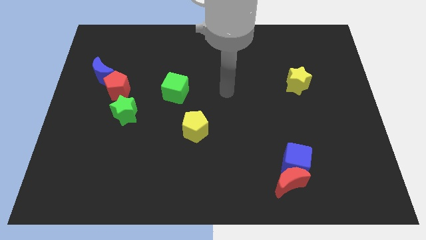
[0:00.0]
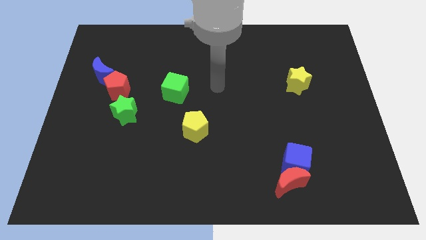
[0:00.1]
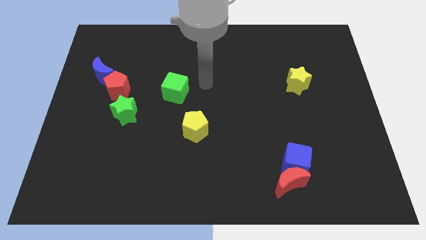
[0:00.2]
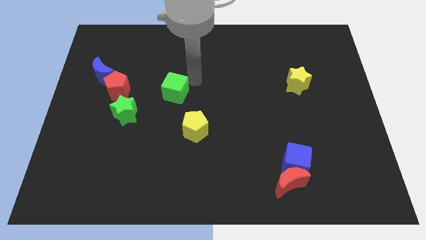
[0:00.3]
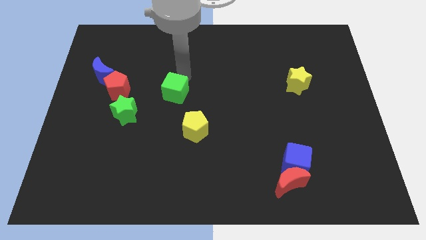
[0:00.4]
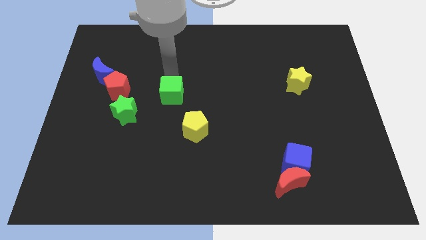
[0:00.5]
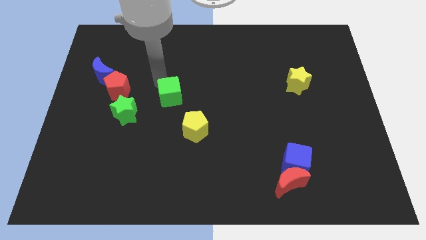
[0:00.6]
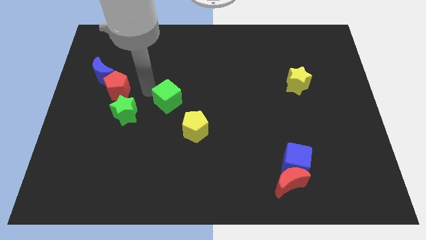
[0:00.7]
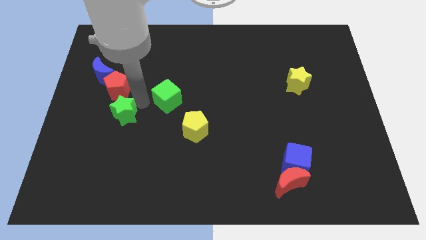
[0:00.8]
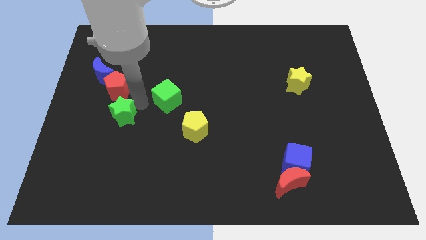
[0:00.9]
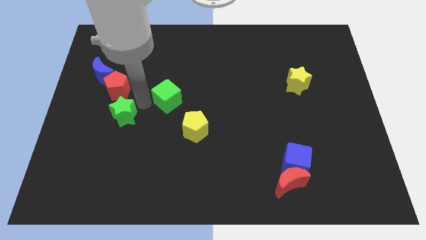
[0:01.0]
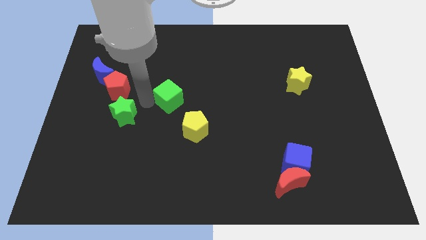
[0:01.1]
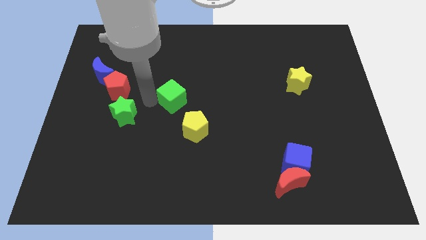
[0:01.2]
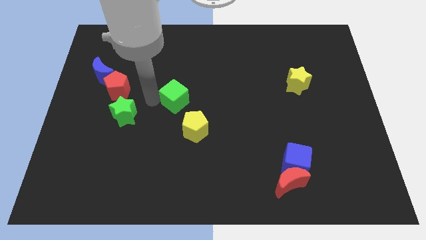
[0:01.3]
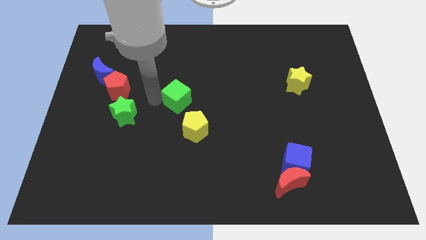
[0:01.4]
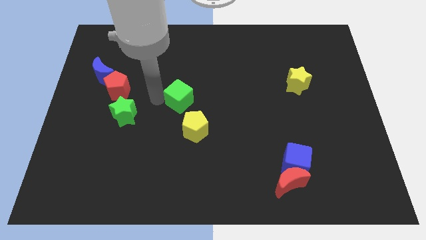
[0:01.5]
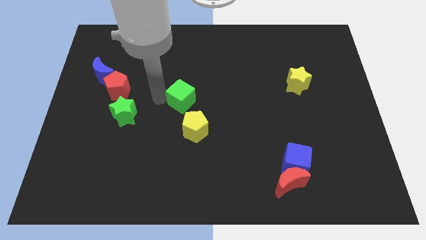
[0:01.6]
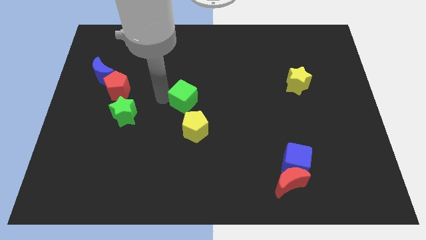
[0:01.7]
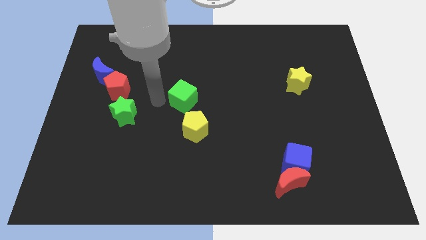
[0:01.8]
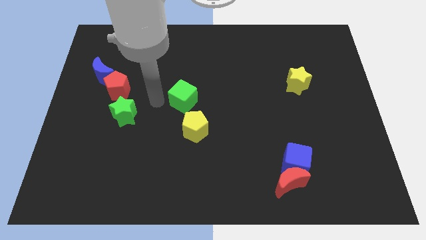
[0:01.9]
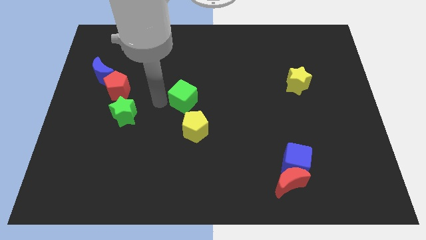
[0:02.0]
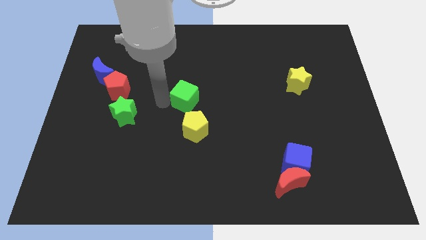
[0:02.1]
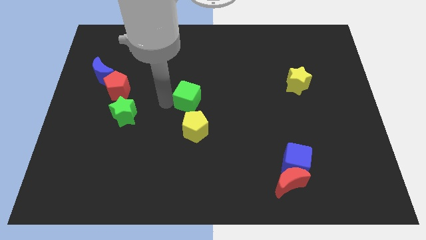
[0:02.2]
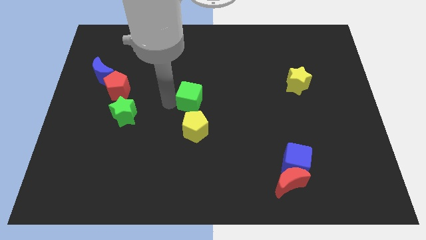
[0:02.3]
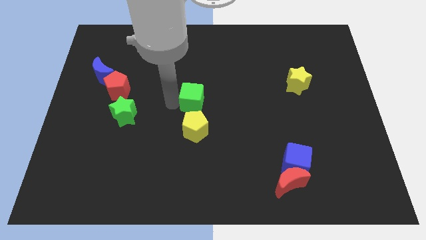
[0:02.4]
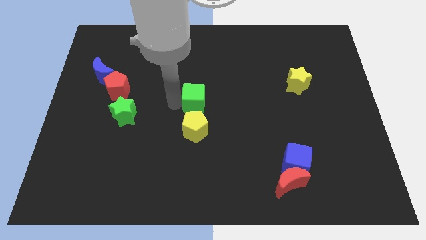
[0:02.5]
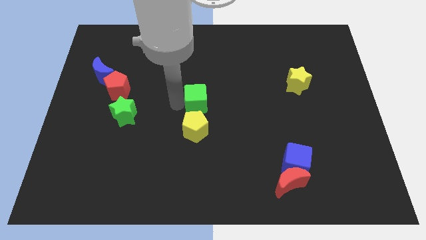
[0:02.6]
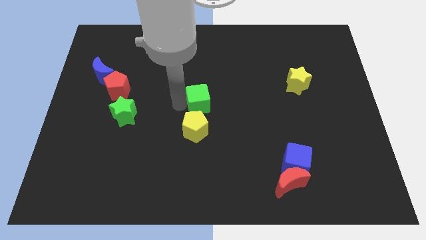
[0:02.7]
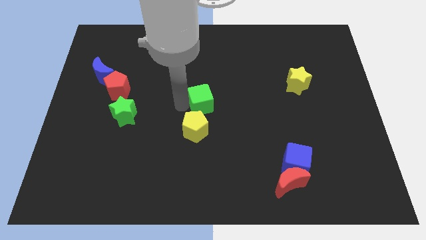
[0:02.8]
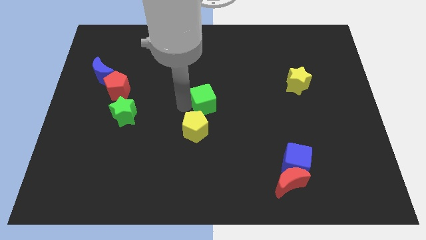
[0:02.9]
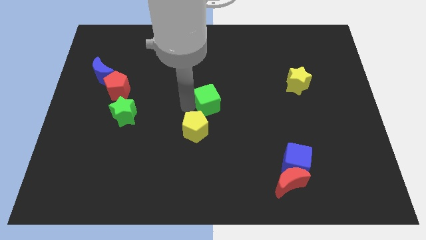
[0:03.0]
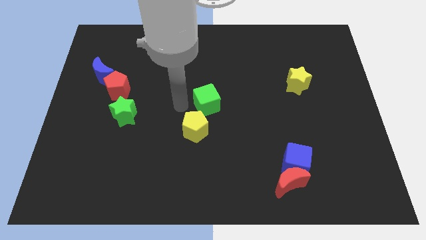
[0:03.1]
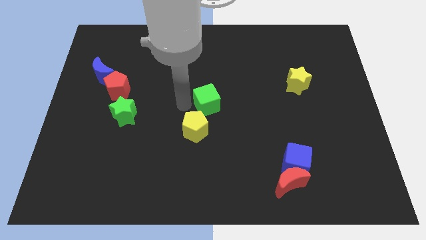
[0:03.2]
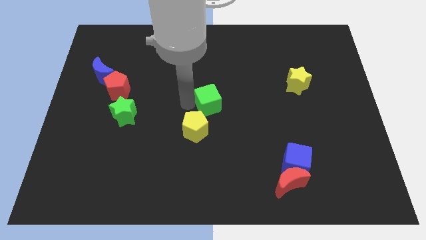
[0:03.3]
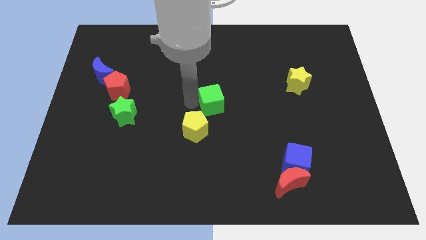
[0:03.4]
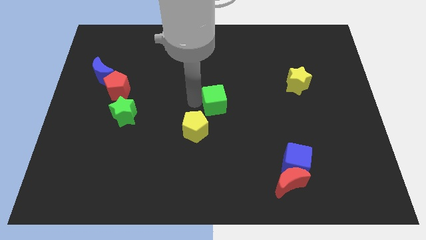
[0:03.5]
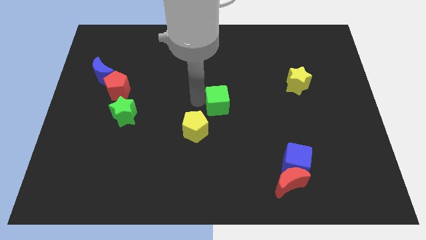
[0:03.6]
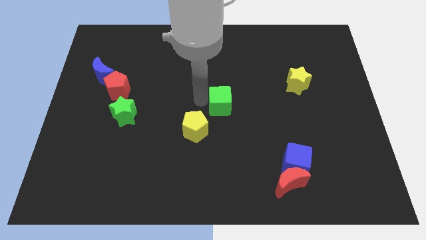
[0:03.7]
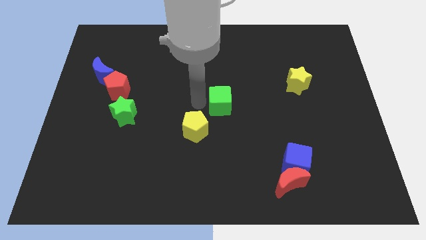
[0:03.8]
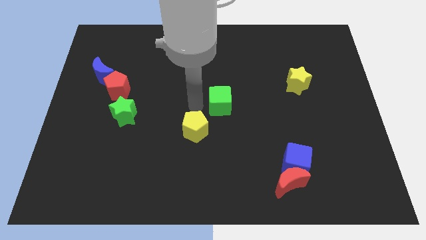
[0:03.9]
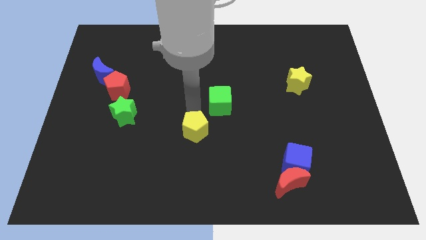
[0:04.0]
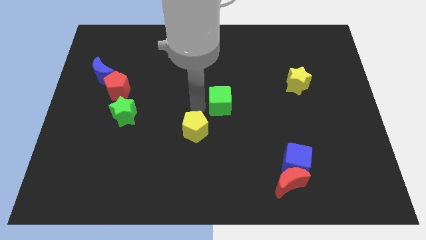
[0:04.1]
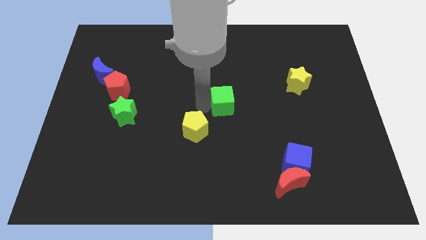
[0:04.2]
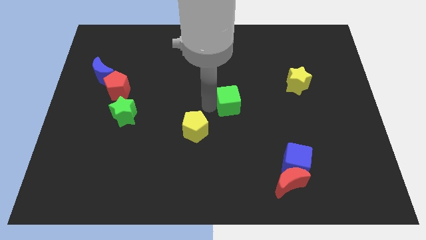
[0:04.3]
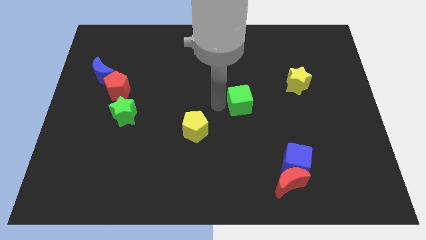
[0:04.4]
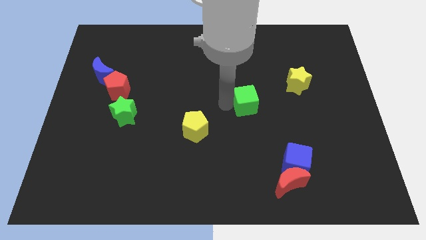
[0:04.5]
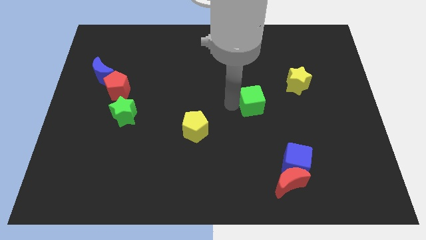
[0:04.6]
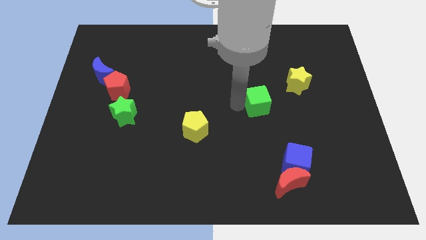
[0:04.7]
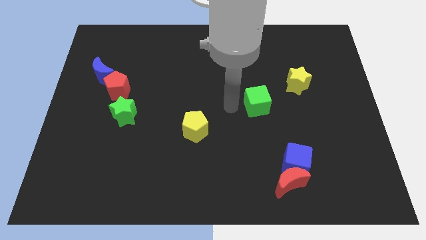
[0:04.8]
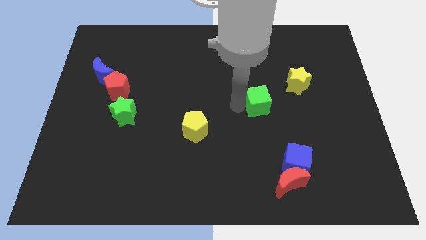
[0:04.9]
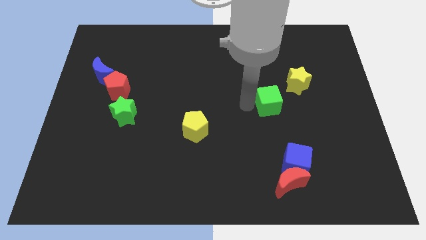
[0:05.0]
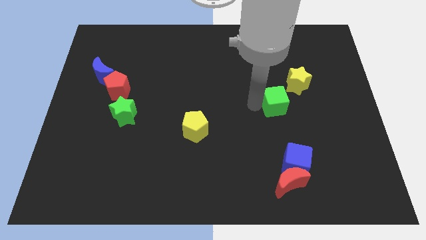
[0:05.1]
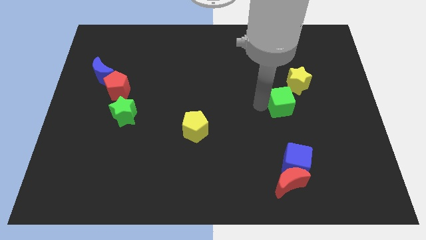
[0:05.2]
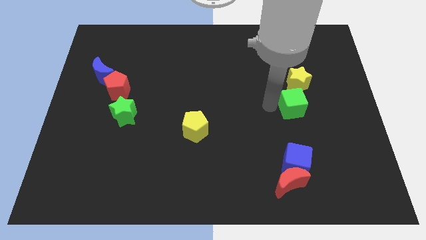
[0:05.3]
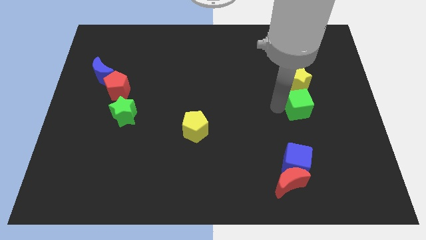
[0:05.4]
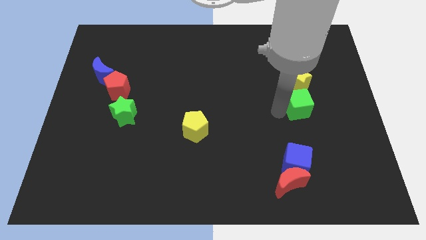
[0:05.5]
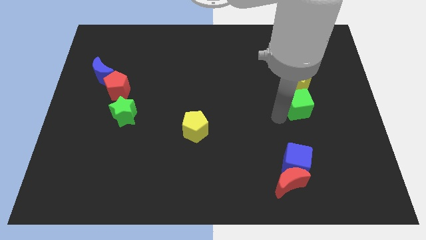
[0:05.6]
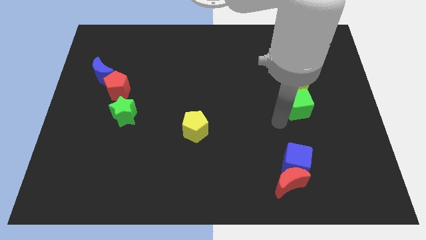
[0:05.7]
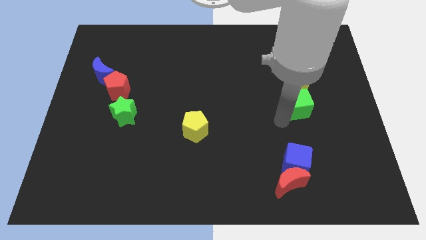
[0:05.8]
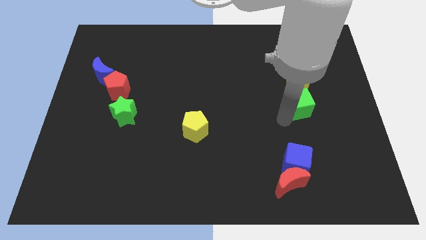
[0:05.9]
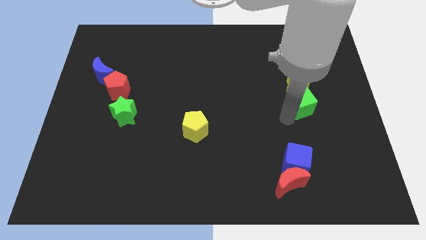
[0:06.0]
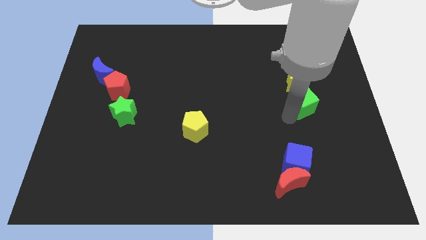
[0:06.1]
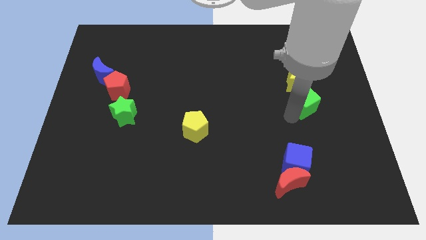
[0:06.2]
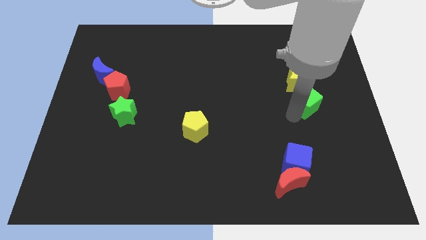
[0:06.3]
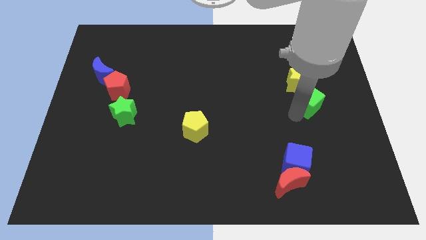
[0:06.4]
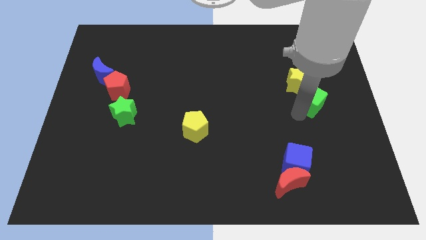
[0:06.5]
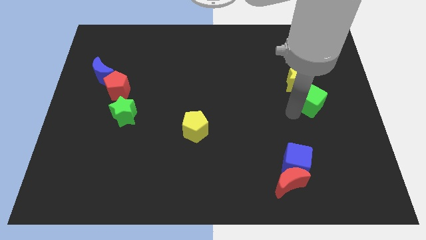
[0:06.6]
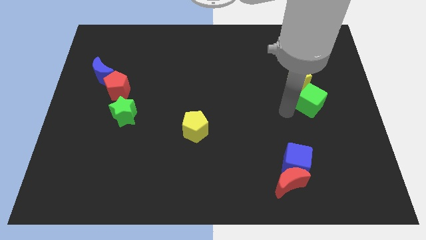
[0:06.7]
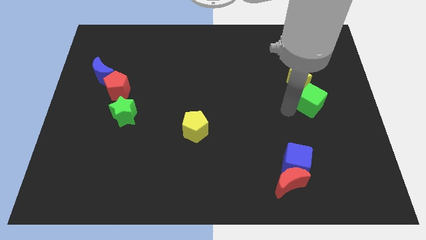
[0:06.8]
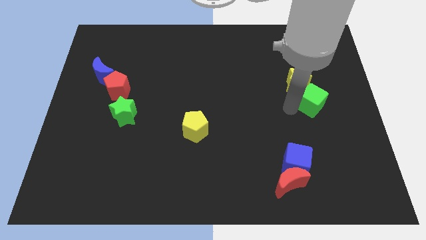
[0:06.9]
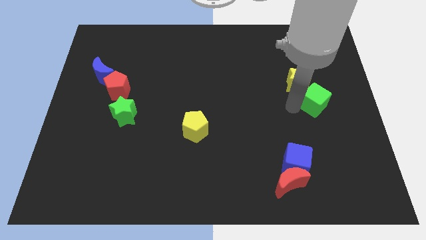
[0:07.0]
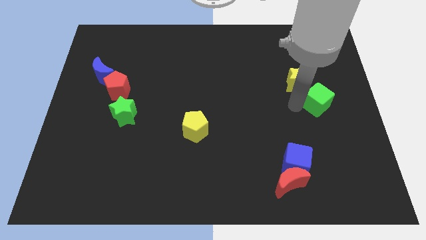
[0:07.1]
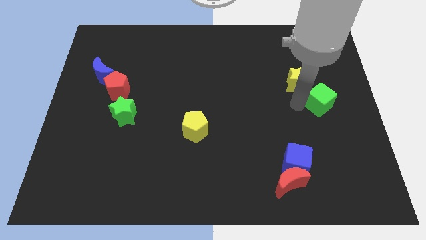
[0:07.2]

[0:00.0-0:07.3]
put the green cube to the center right
